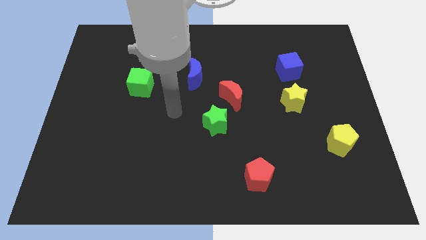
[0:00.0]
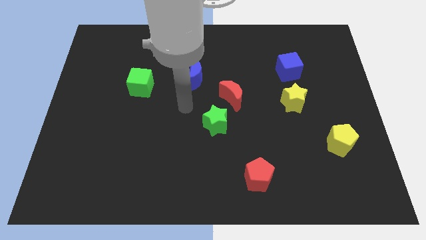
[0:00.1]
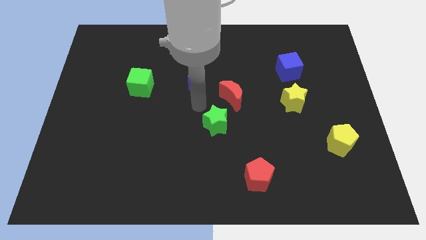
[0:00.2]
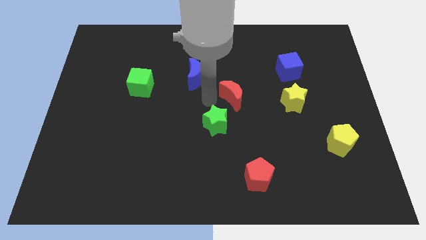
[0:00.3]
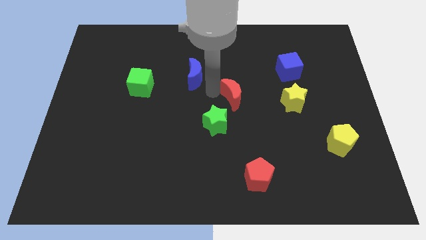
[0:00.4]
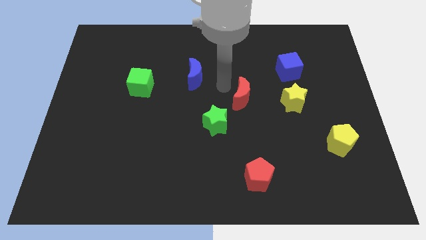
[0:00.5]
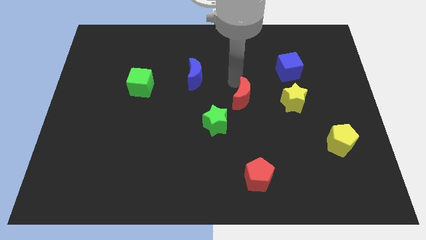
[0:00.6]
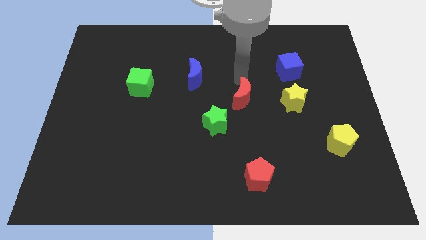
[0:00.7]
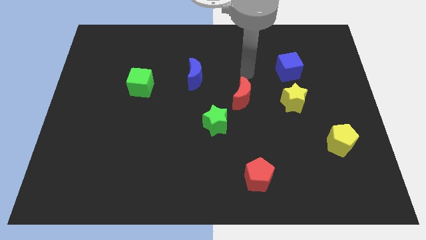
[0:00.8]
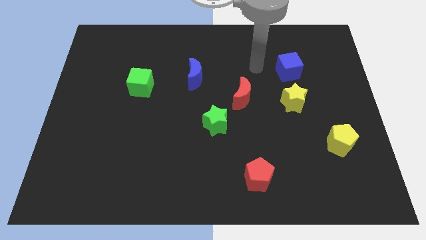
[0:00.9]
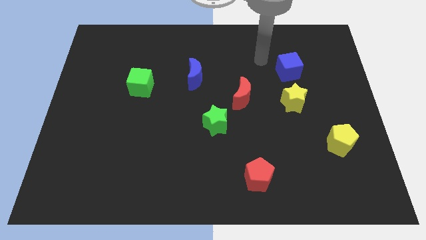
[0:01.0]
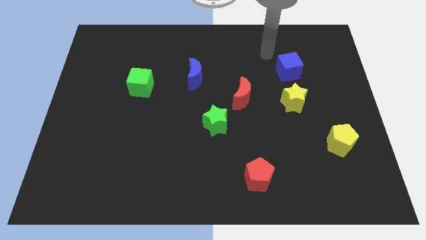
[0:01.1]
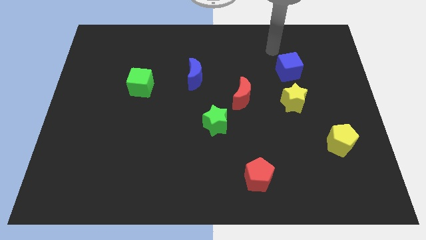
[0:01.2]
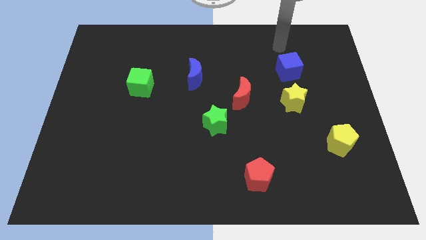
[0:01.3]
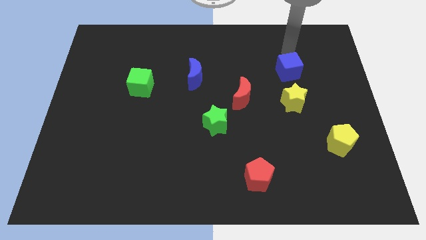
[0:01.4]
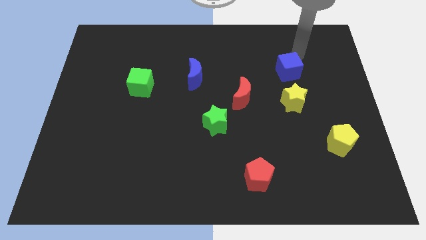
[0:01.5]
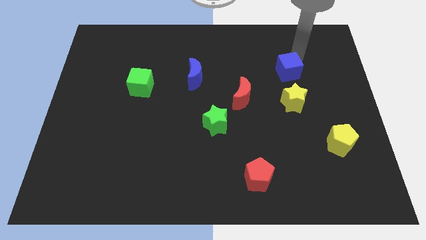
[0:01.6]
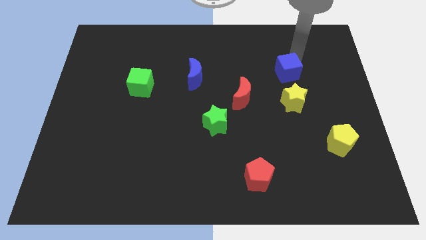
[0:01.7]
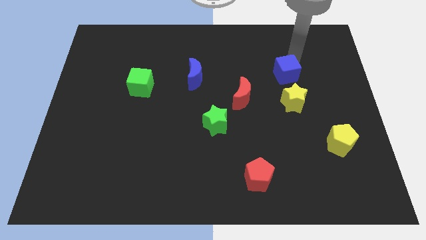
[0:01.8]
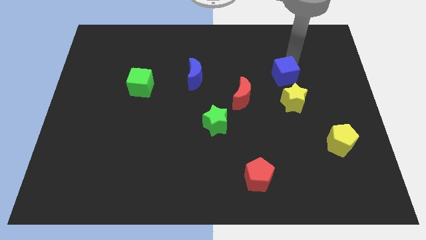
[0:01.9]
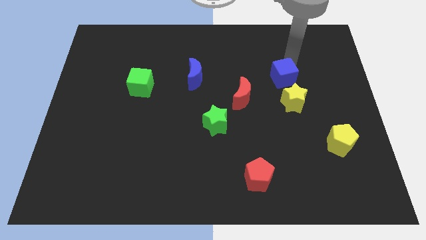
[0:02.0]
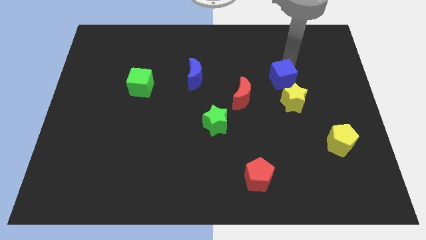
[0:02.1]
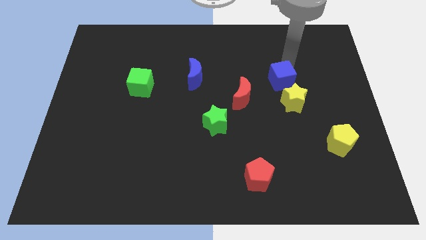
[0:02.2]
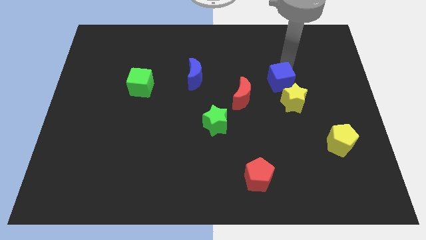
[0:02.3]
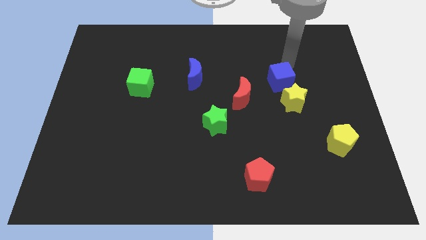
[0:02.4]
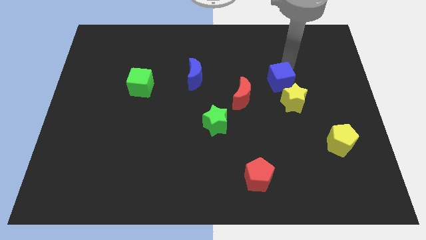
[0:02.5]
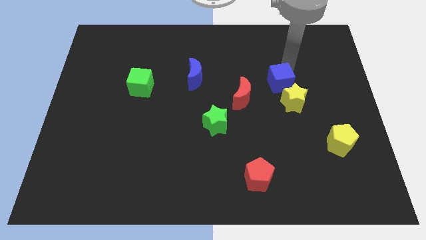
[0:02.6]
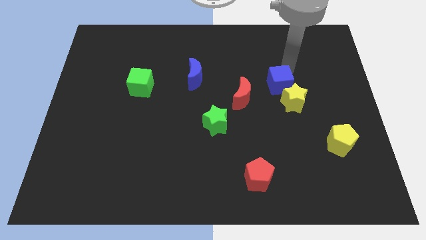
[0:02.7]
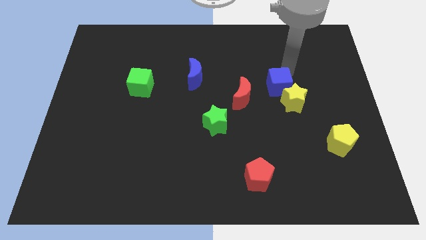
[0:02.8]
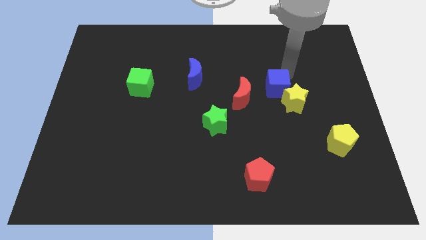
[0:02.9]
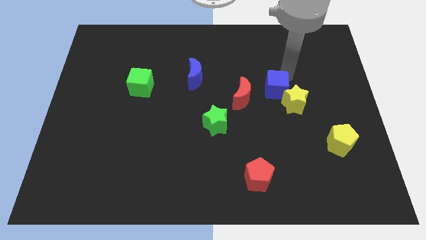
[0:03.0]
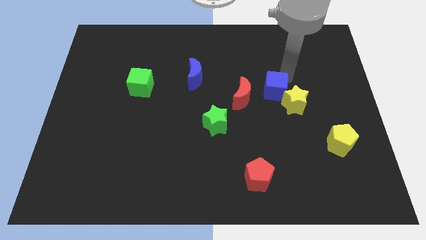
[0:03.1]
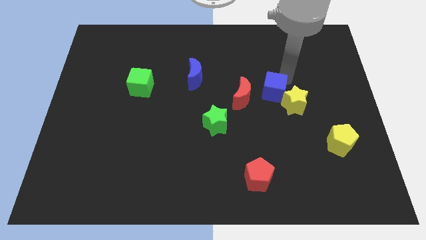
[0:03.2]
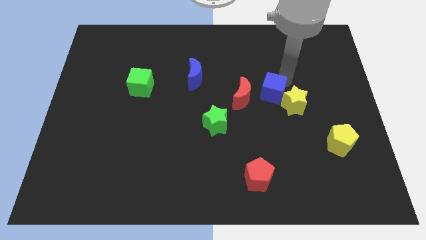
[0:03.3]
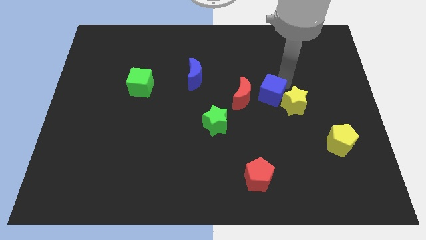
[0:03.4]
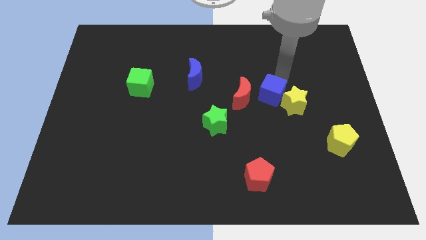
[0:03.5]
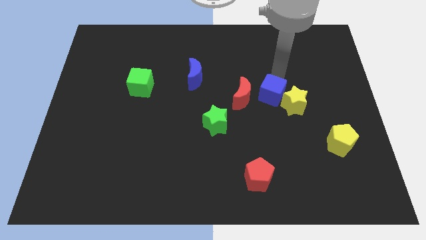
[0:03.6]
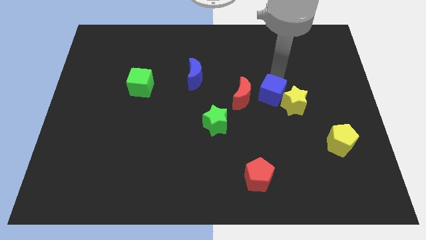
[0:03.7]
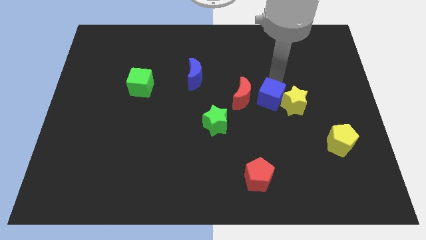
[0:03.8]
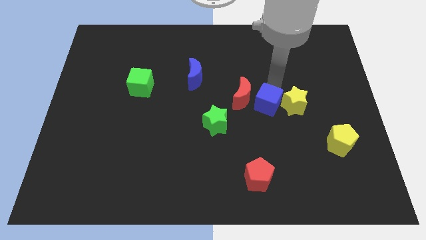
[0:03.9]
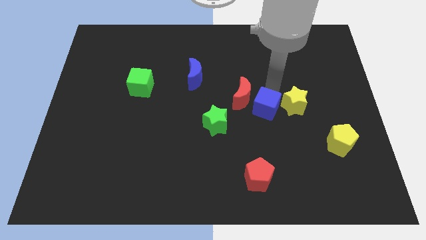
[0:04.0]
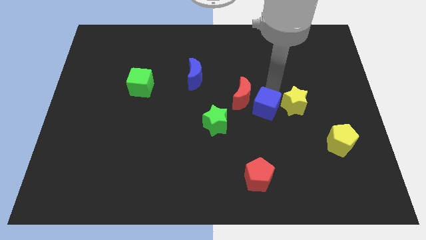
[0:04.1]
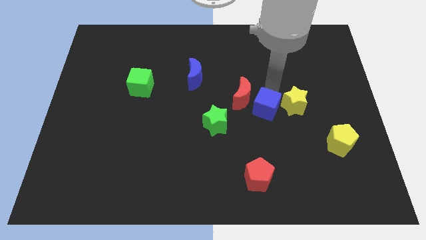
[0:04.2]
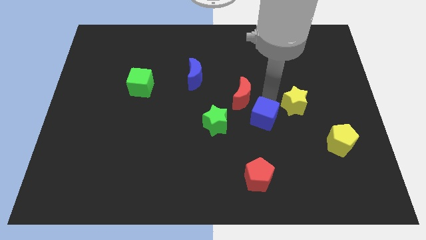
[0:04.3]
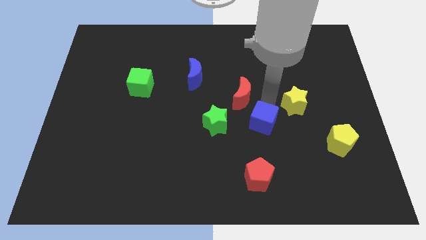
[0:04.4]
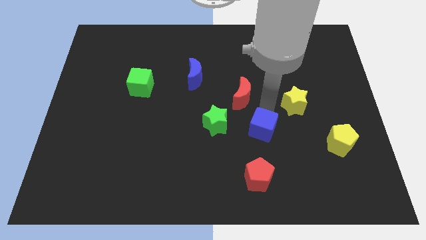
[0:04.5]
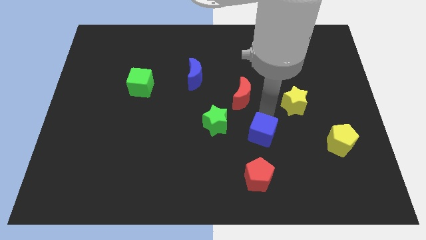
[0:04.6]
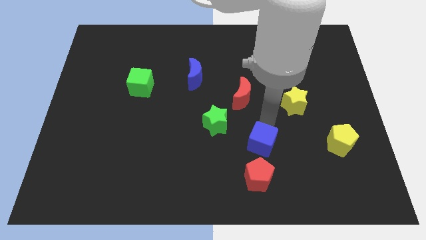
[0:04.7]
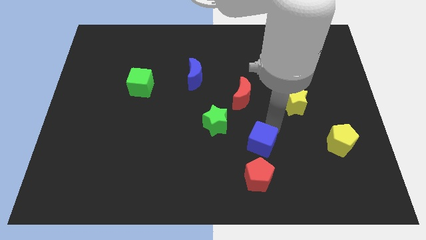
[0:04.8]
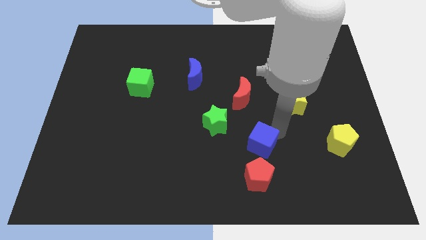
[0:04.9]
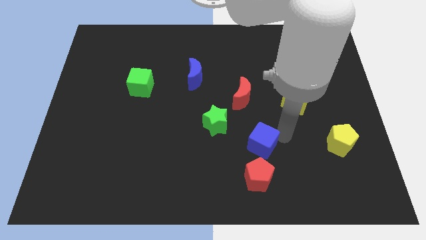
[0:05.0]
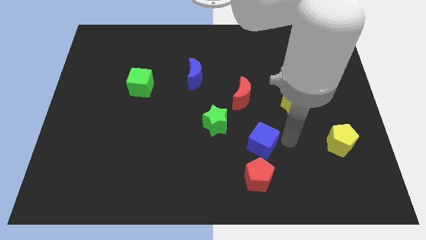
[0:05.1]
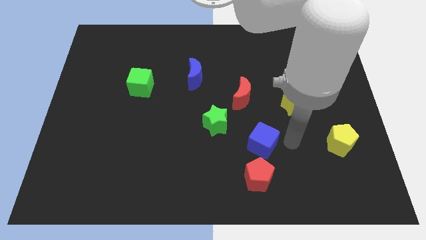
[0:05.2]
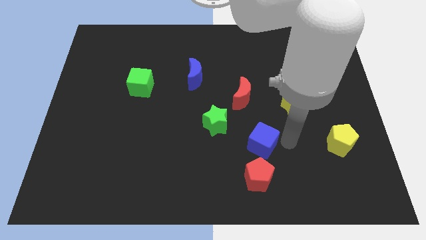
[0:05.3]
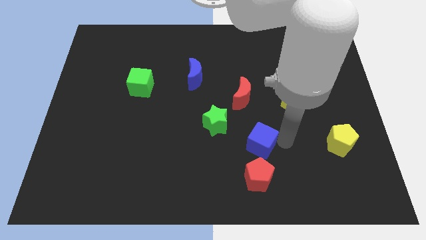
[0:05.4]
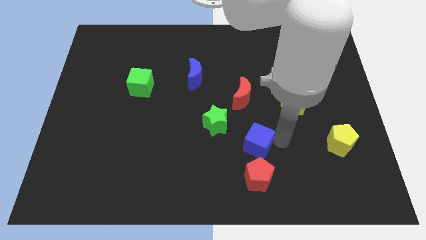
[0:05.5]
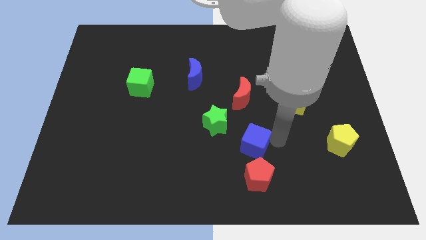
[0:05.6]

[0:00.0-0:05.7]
slide the blue cube downwards and then left

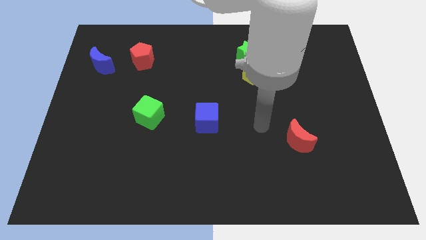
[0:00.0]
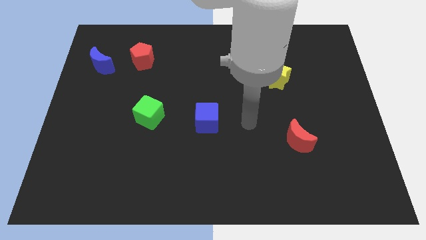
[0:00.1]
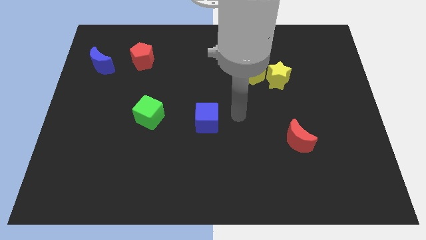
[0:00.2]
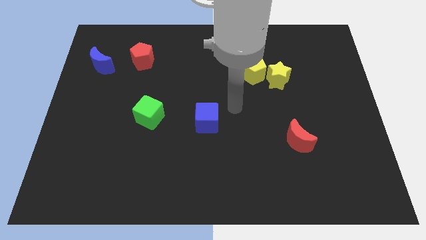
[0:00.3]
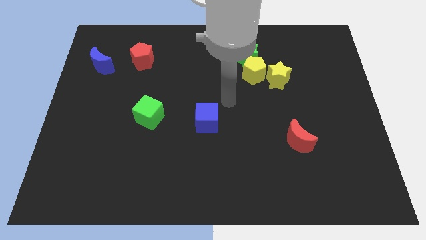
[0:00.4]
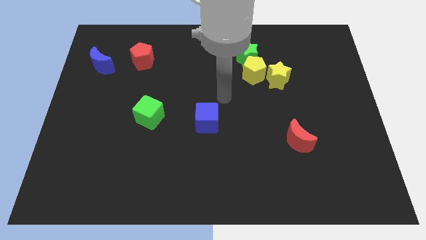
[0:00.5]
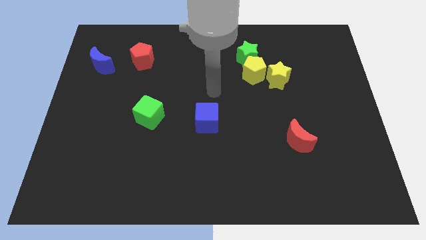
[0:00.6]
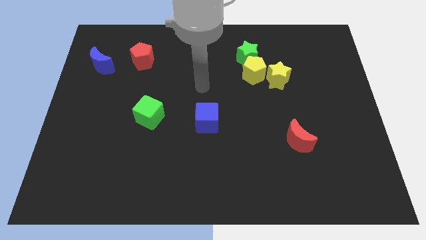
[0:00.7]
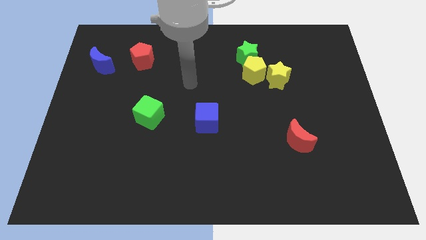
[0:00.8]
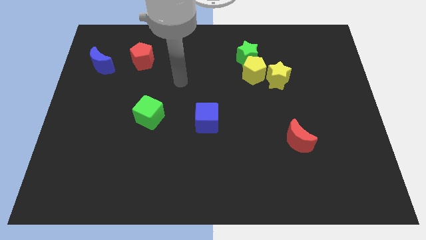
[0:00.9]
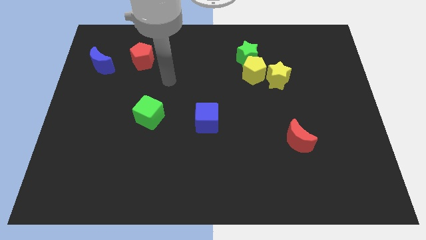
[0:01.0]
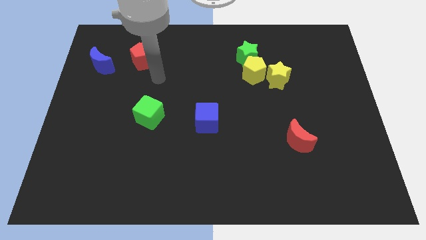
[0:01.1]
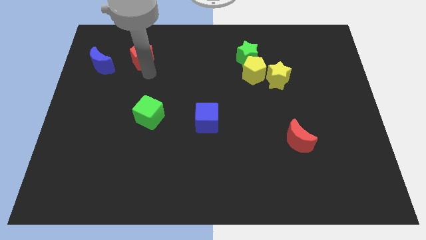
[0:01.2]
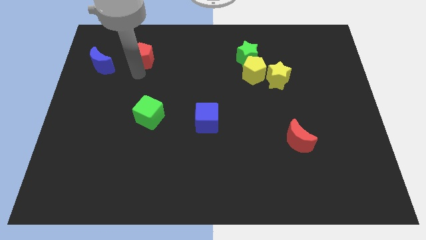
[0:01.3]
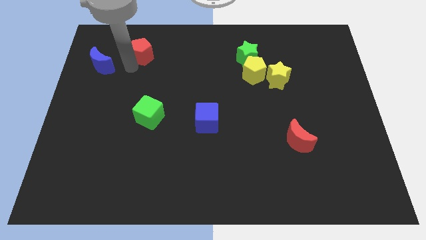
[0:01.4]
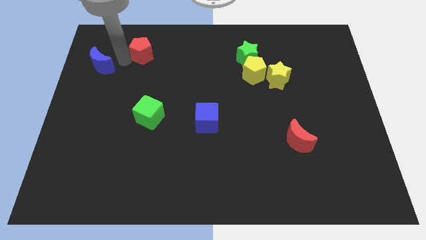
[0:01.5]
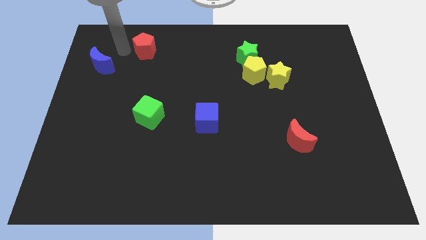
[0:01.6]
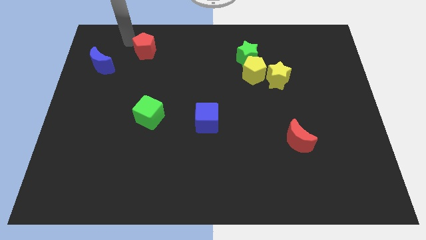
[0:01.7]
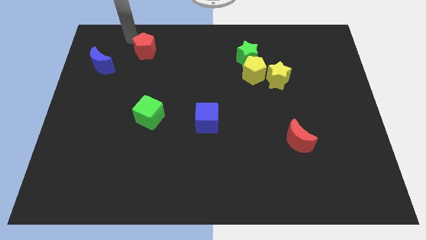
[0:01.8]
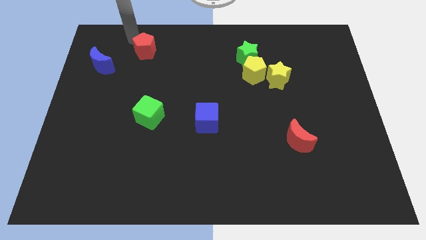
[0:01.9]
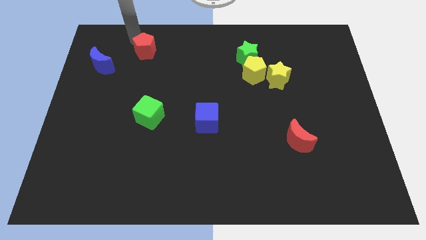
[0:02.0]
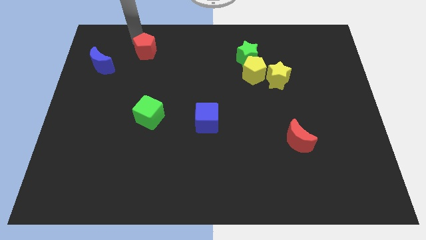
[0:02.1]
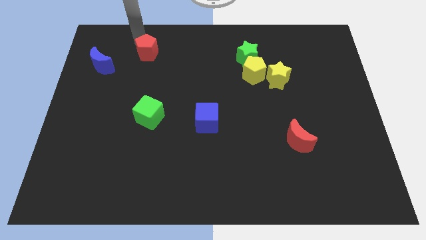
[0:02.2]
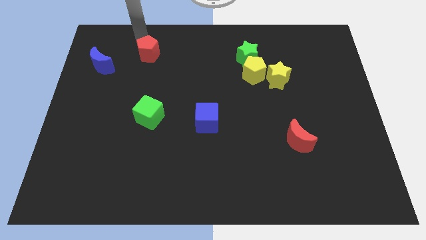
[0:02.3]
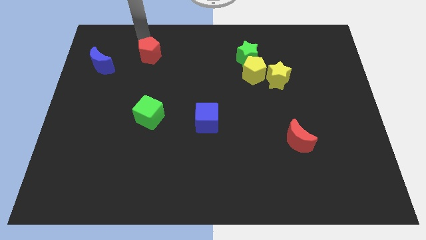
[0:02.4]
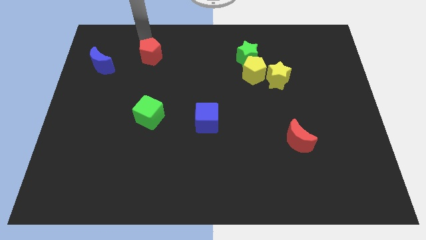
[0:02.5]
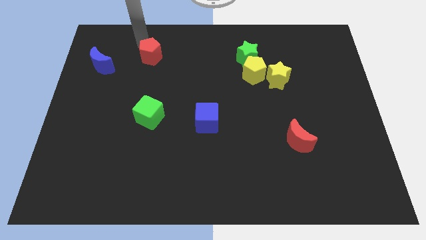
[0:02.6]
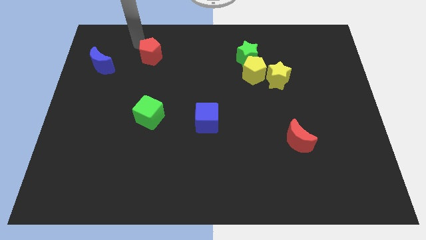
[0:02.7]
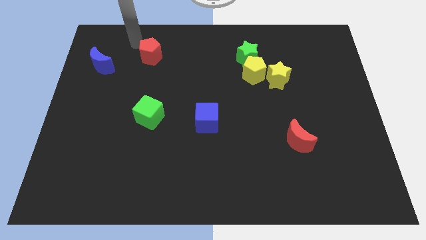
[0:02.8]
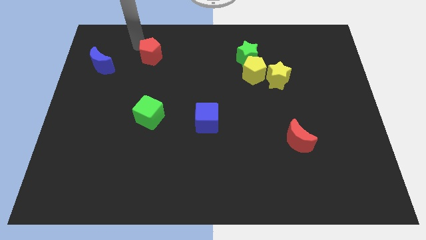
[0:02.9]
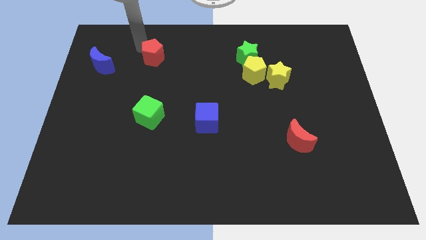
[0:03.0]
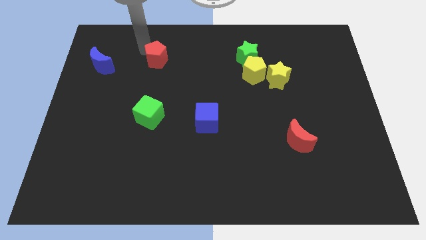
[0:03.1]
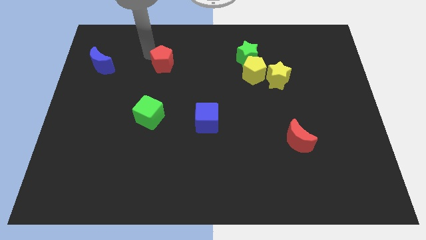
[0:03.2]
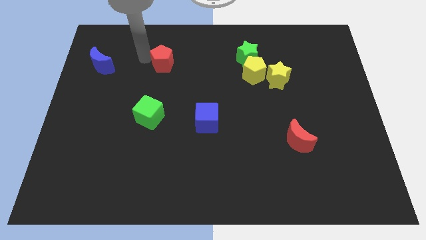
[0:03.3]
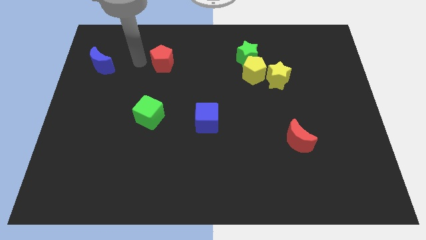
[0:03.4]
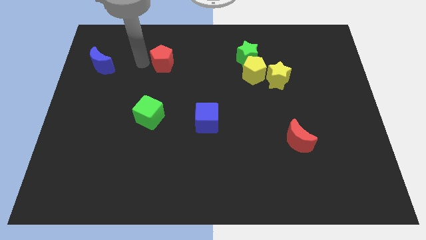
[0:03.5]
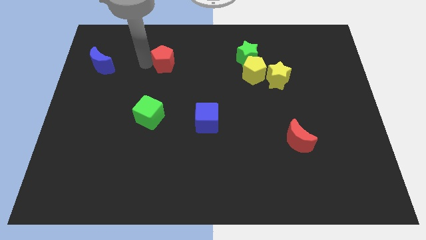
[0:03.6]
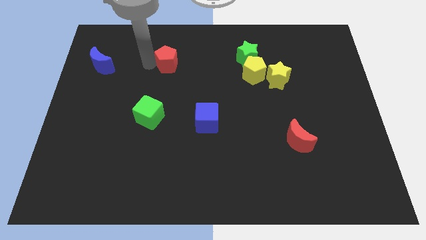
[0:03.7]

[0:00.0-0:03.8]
push the red pentagon right a little bit
